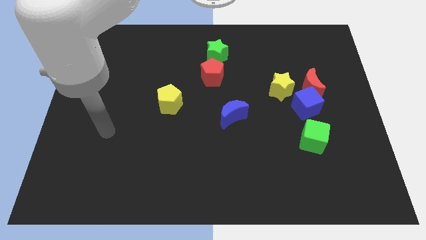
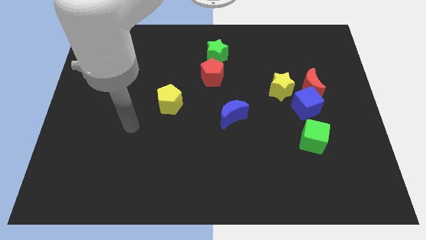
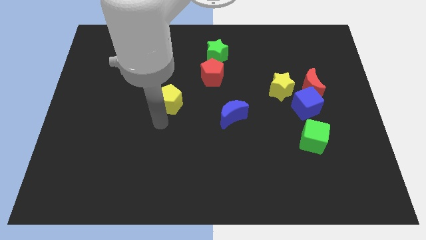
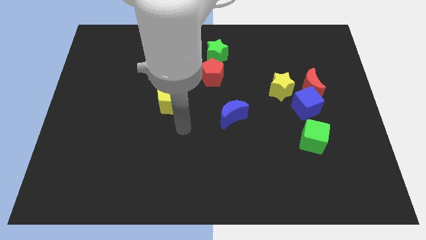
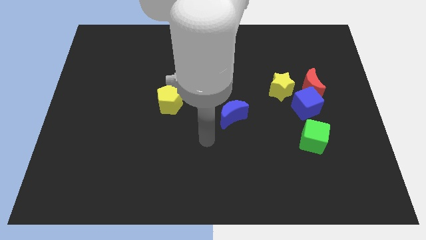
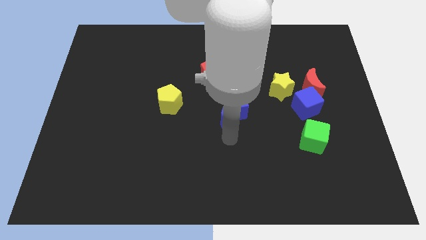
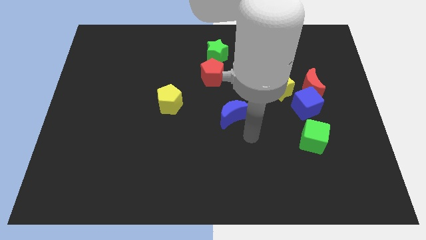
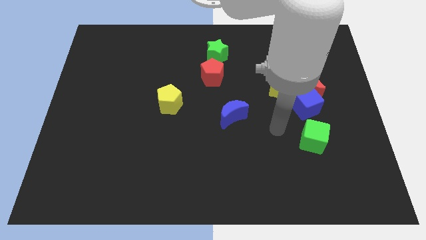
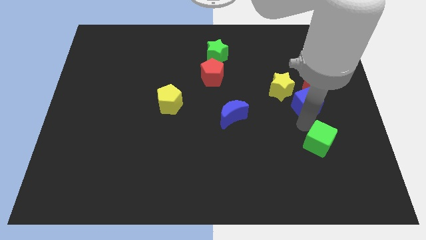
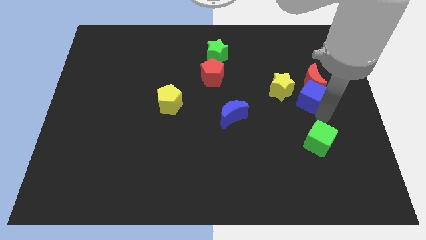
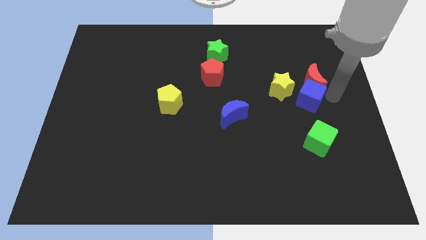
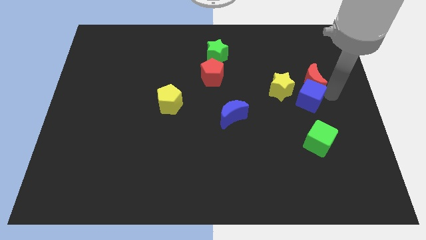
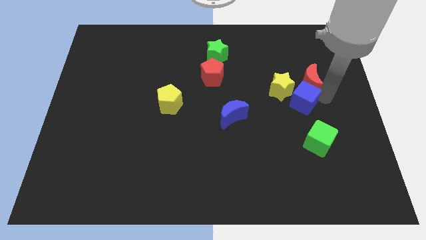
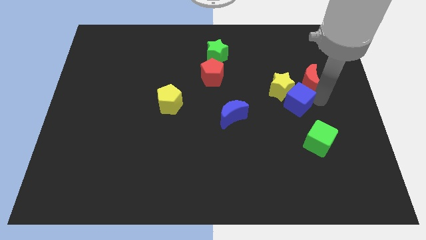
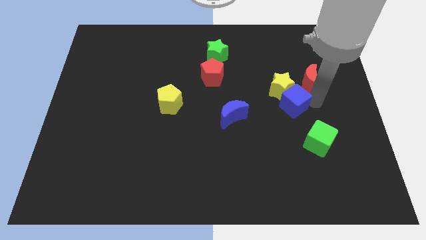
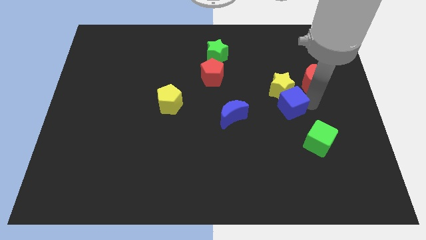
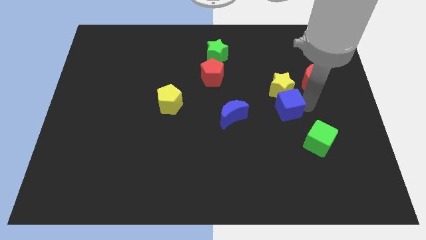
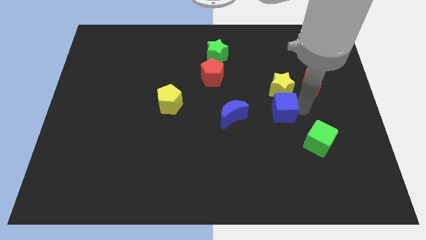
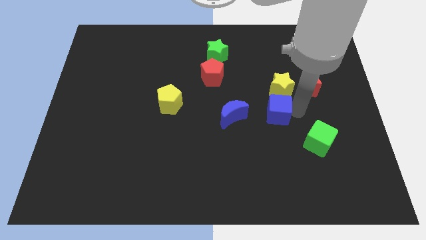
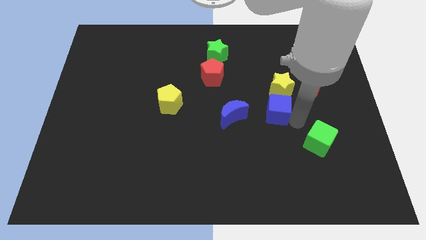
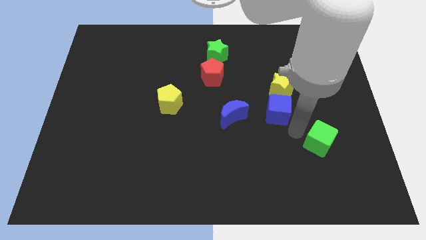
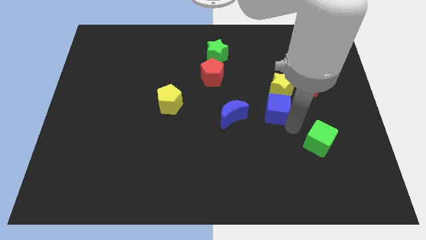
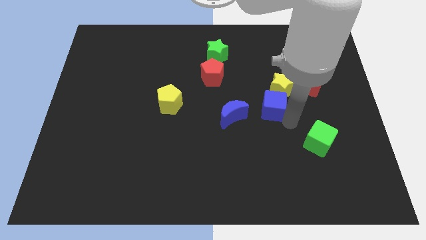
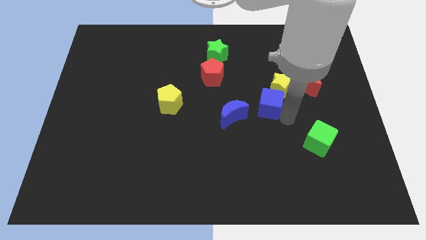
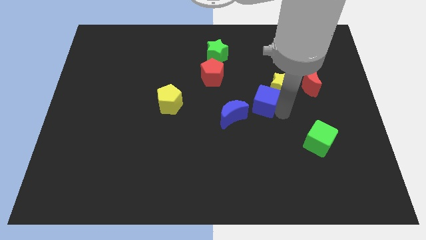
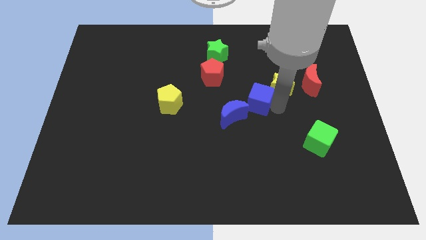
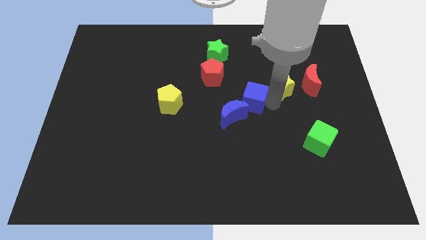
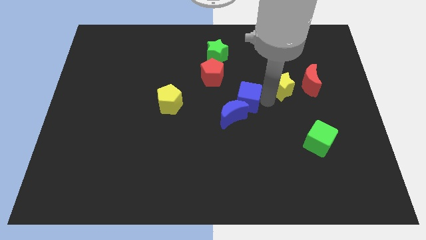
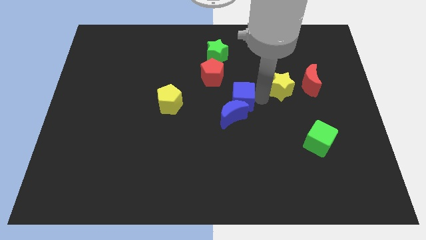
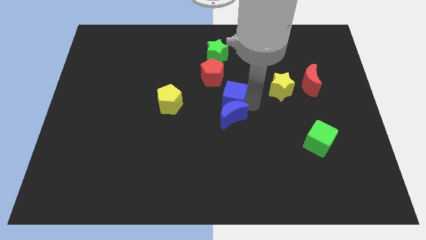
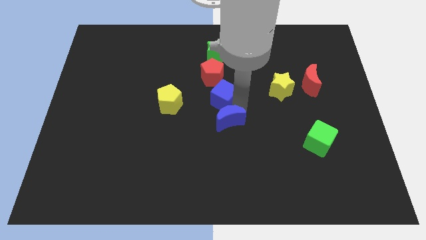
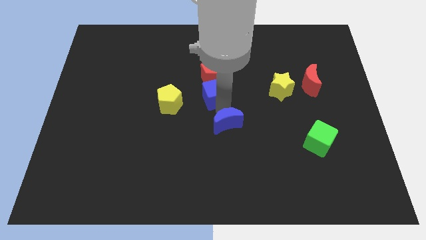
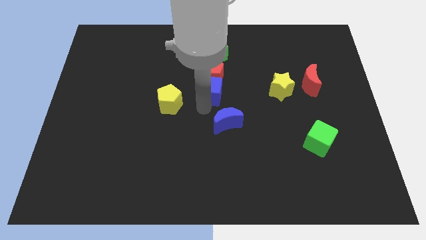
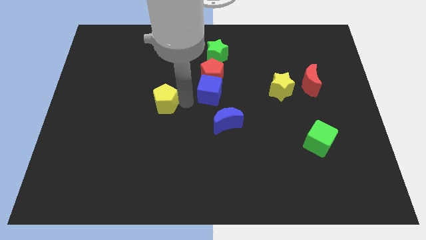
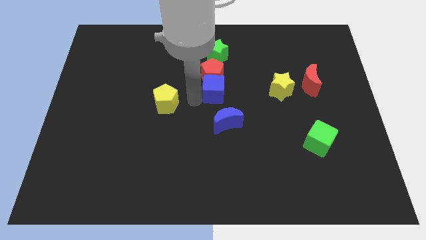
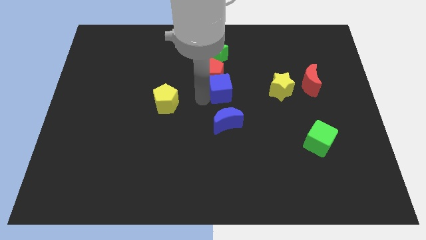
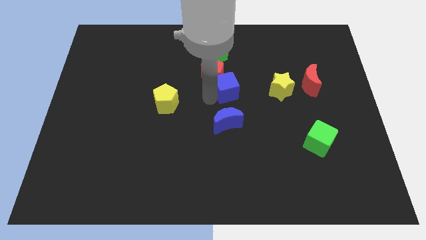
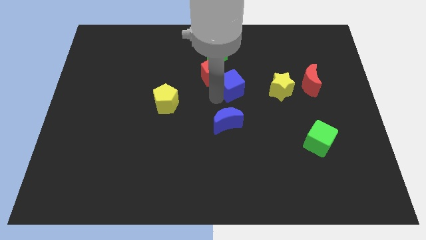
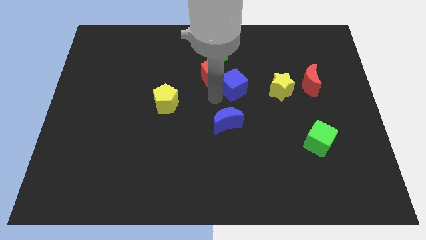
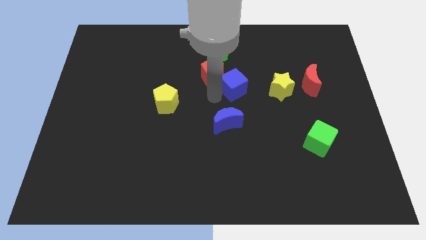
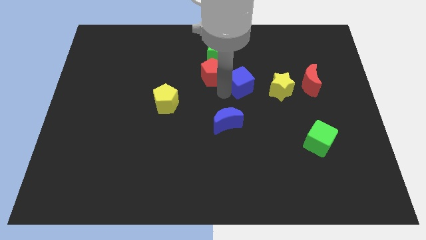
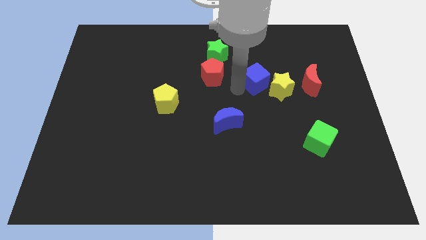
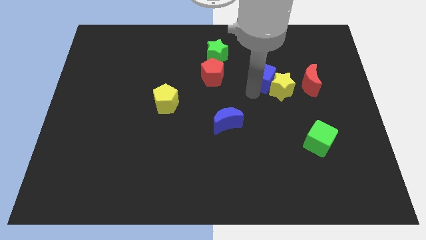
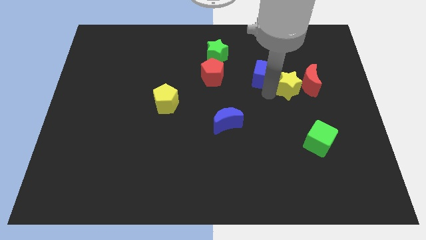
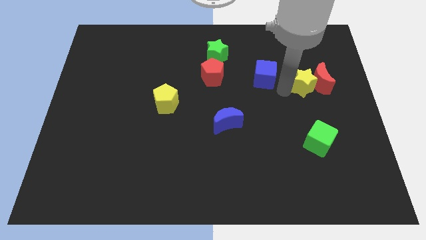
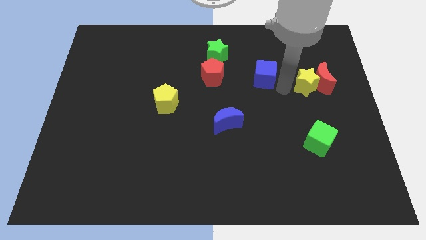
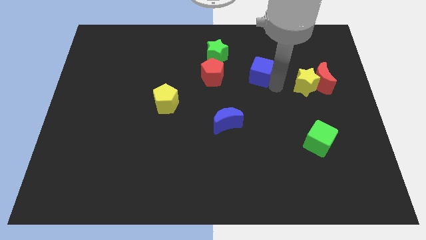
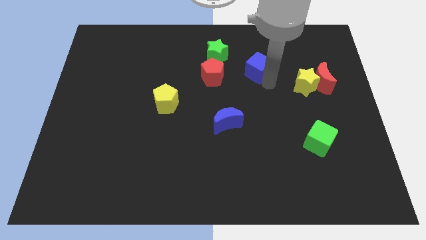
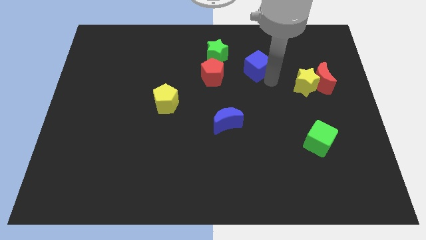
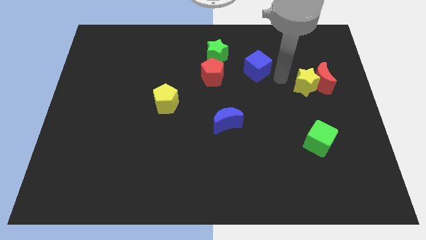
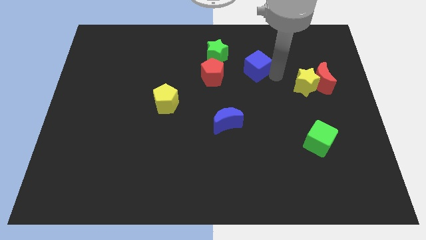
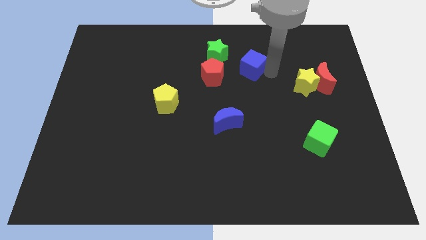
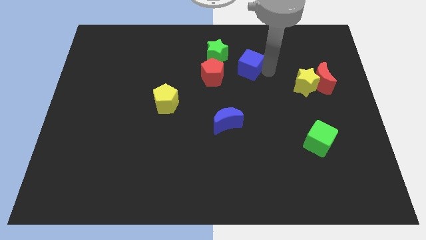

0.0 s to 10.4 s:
slide the blue cube to the top right side of the red pentagon

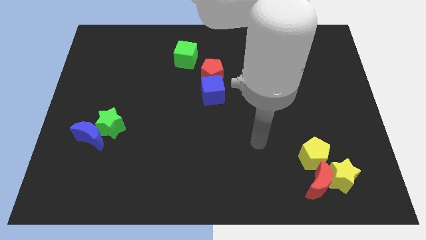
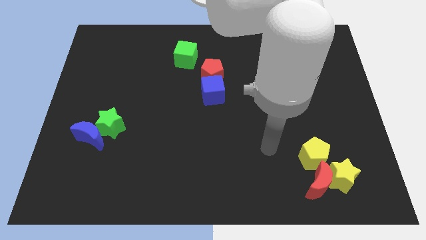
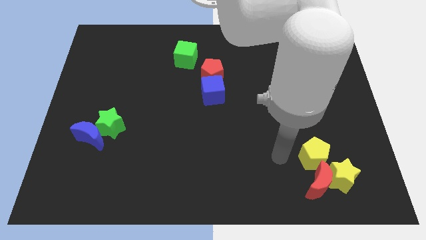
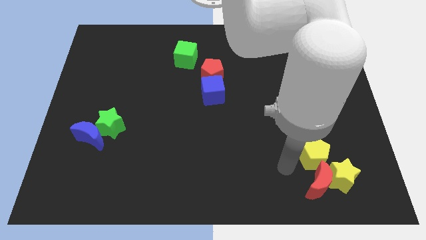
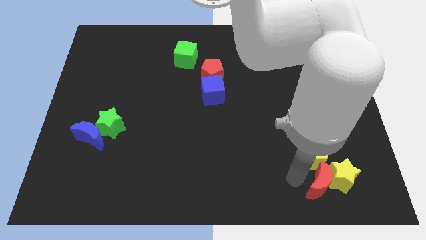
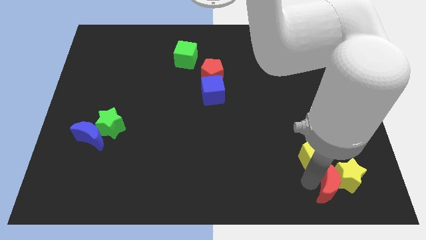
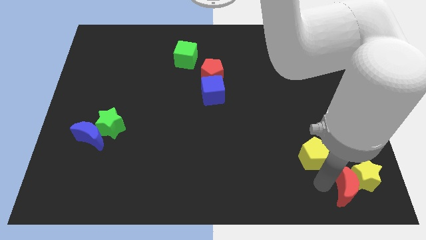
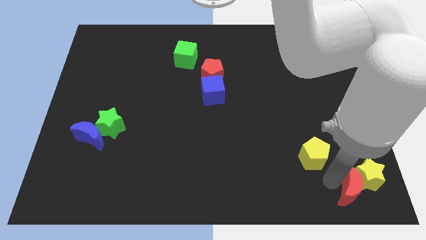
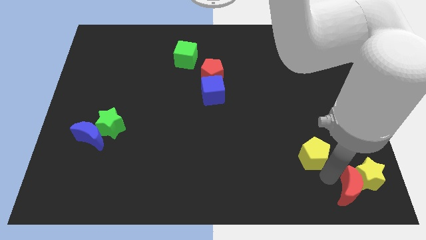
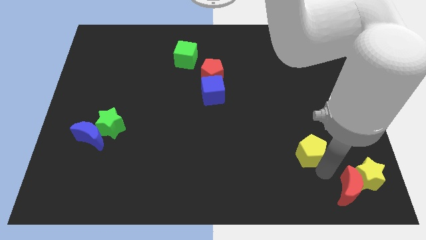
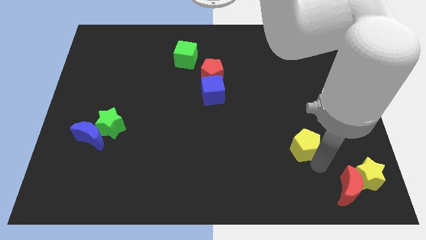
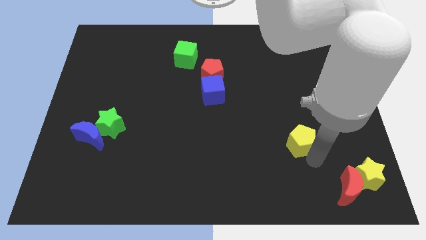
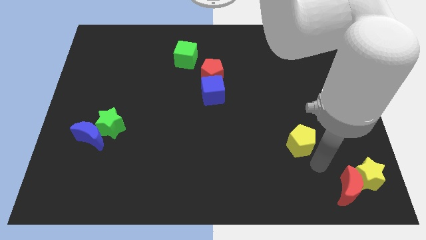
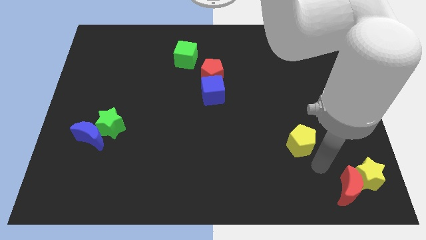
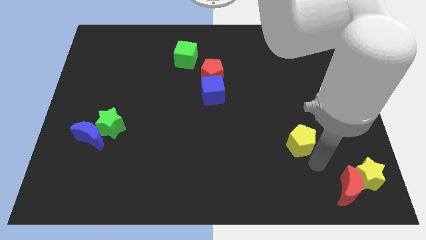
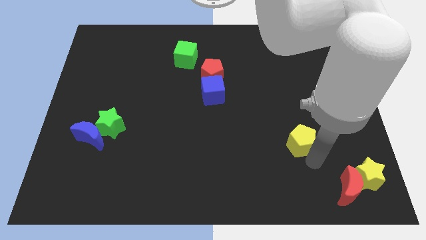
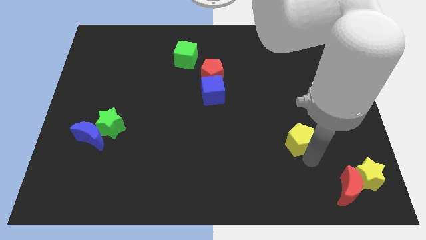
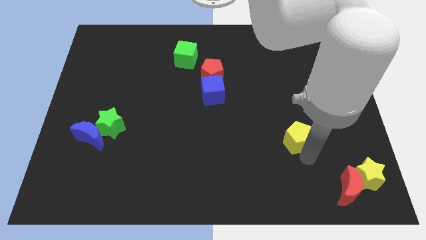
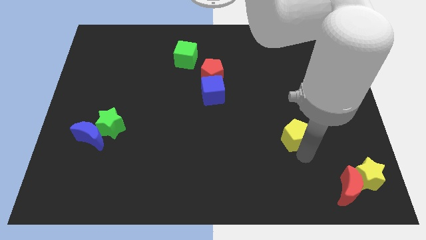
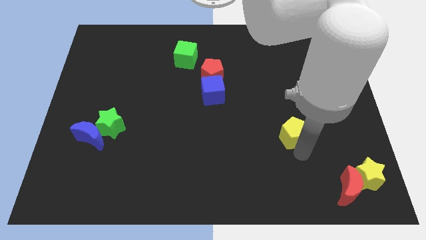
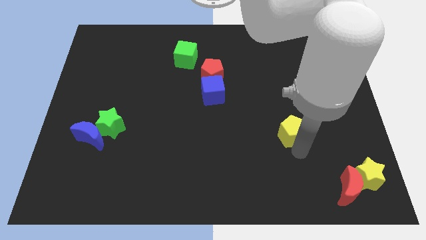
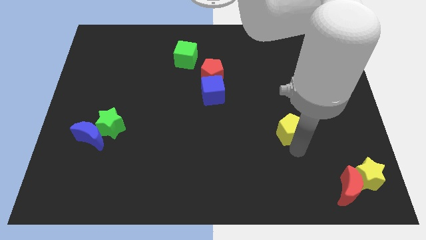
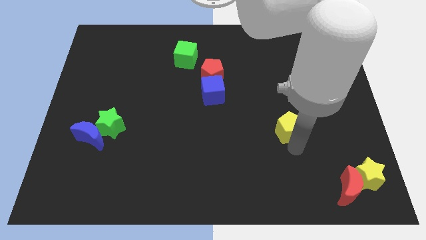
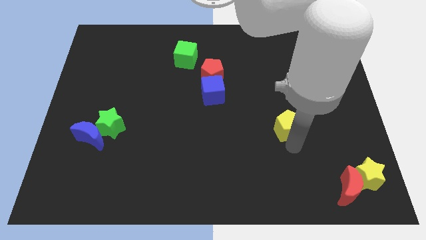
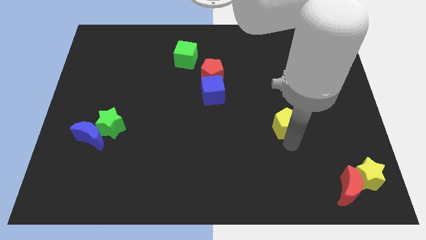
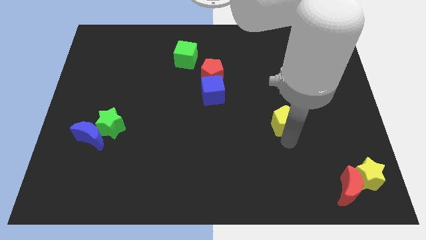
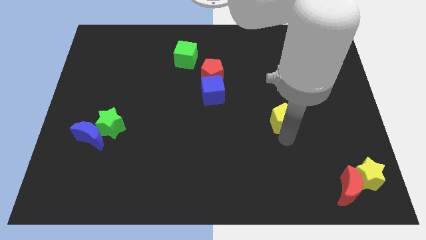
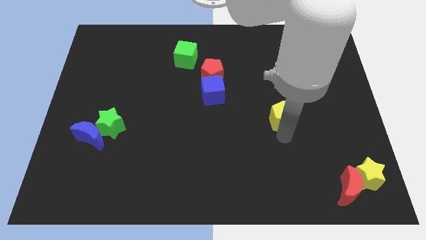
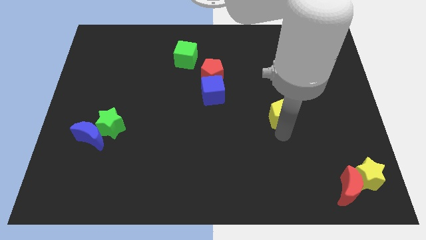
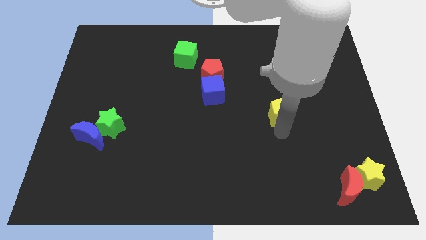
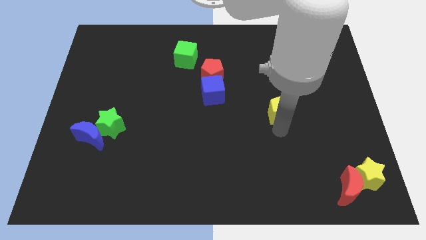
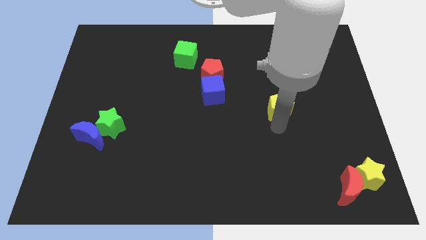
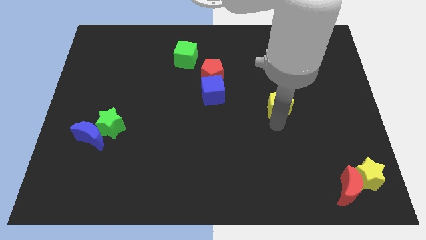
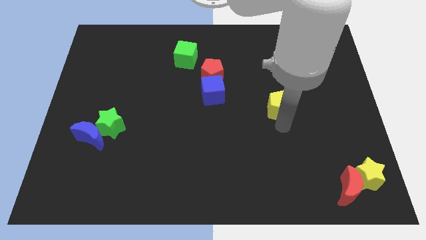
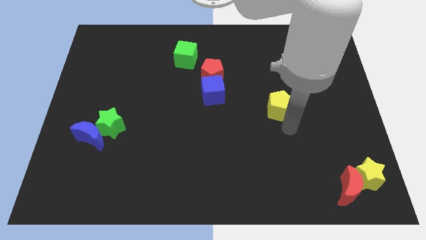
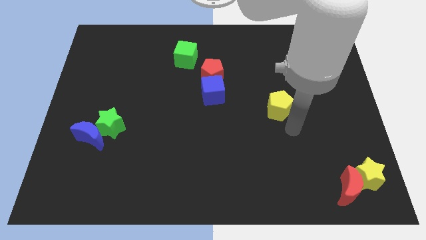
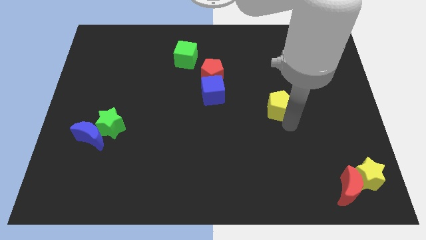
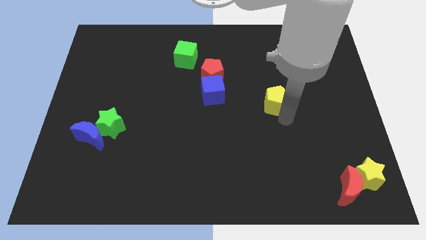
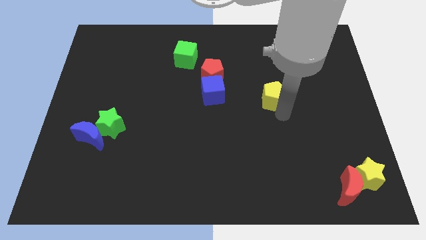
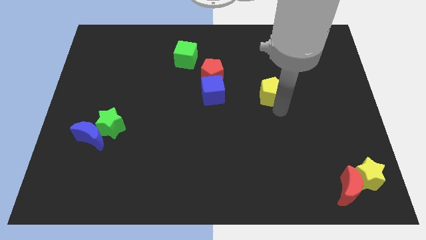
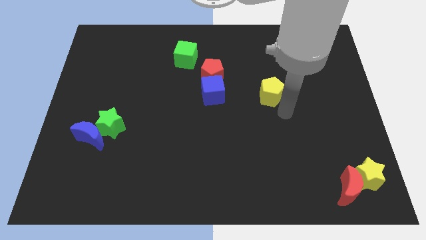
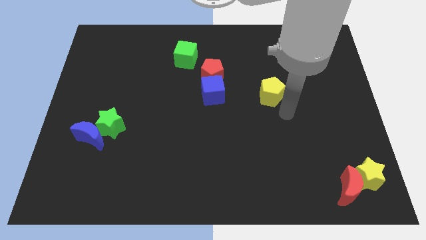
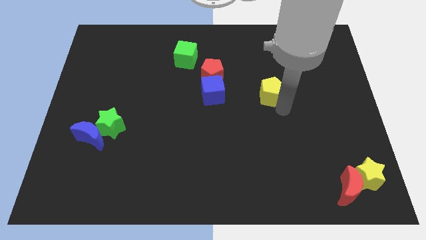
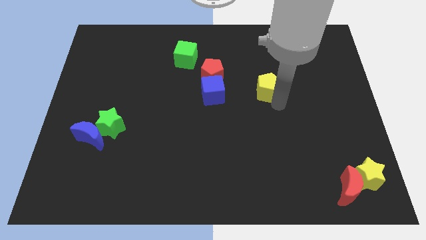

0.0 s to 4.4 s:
slide the yellow pentagon to the right of the red pentagon
